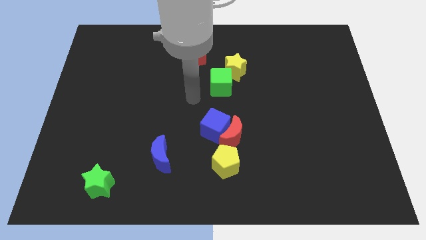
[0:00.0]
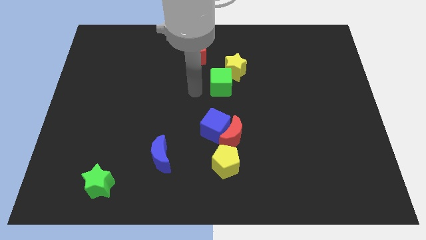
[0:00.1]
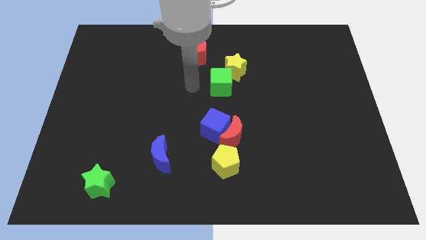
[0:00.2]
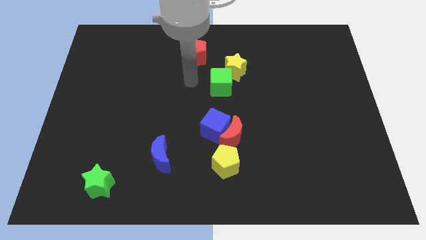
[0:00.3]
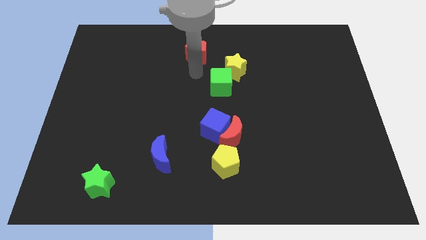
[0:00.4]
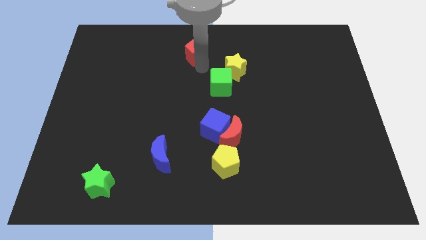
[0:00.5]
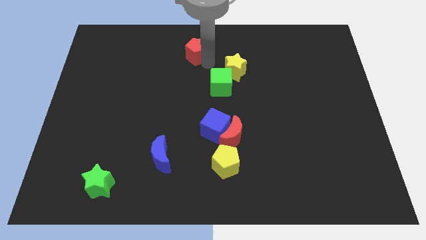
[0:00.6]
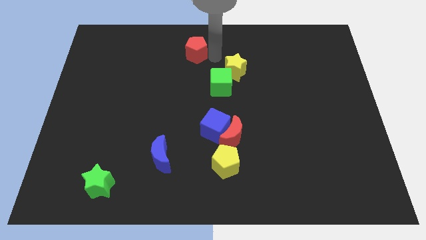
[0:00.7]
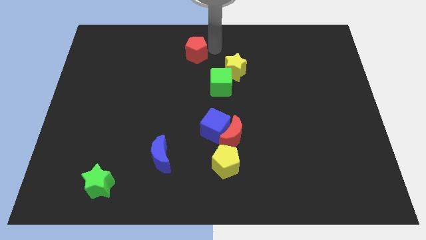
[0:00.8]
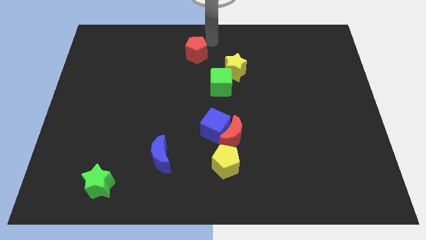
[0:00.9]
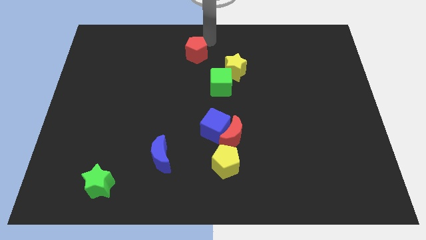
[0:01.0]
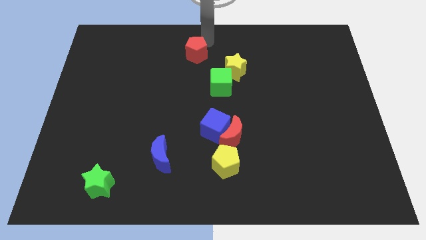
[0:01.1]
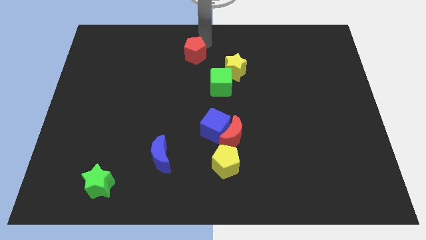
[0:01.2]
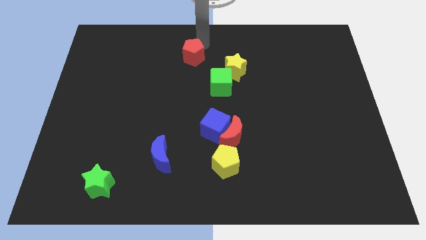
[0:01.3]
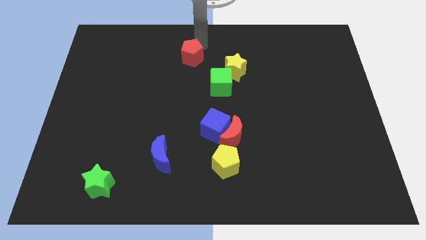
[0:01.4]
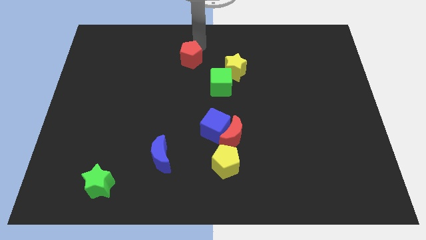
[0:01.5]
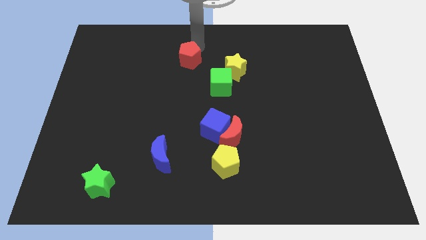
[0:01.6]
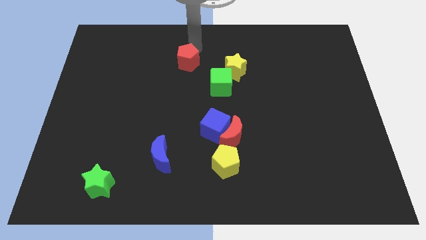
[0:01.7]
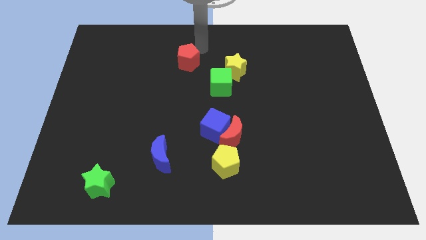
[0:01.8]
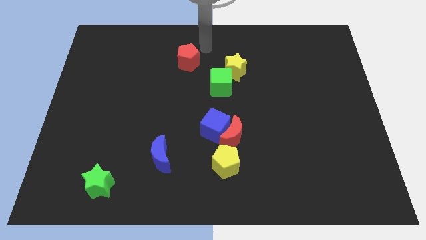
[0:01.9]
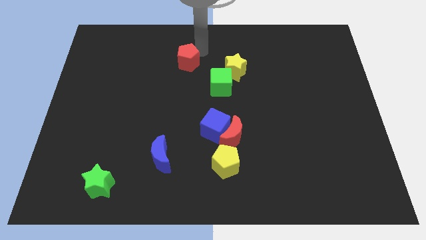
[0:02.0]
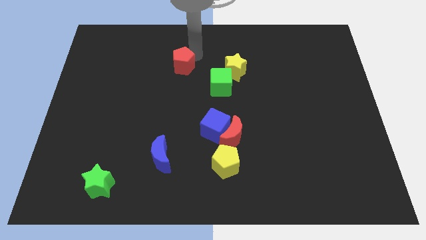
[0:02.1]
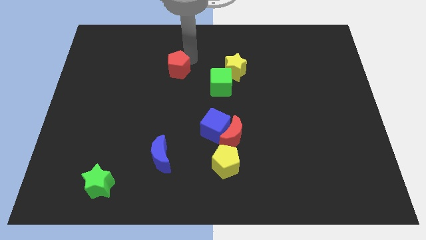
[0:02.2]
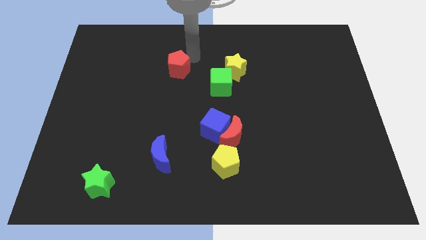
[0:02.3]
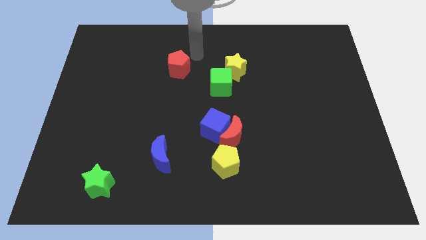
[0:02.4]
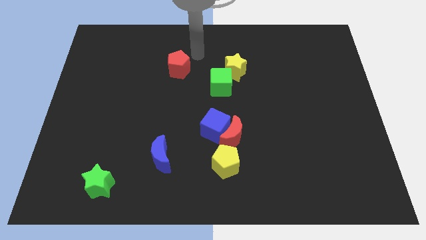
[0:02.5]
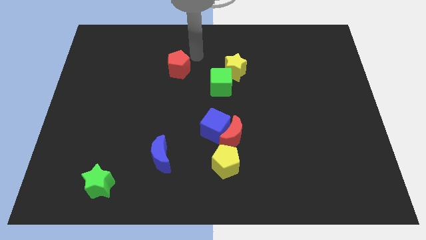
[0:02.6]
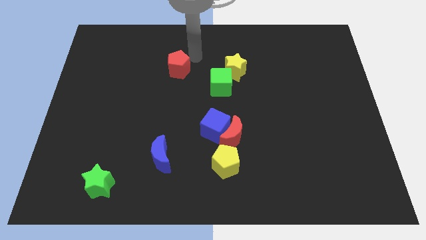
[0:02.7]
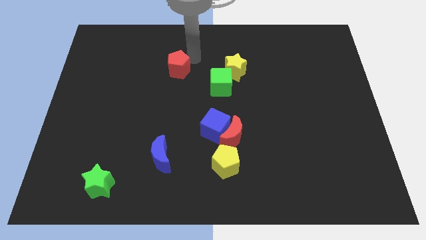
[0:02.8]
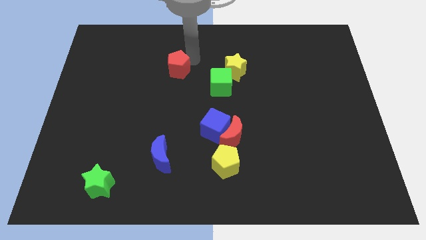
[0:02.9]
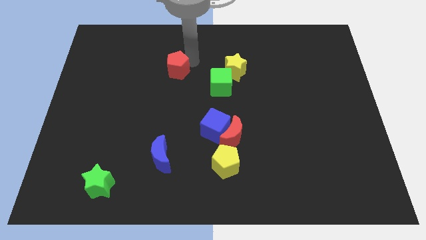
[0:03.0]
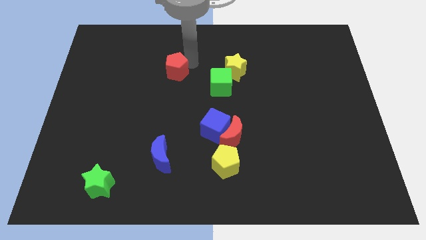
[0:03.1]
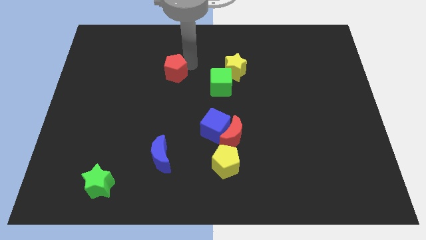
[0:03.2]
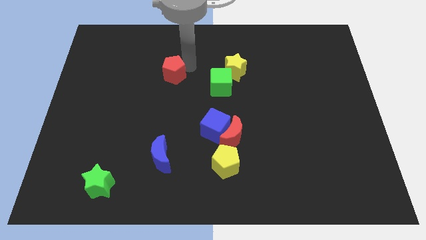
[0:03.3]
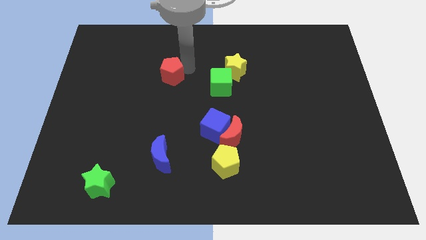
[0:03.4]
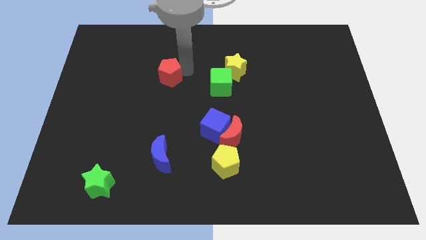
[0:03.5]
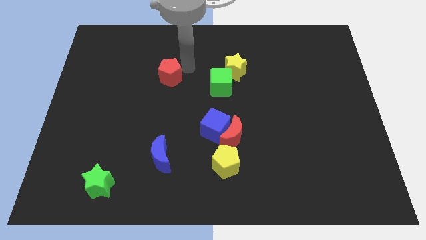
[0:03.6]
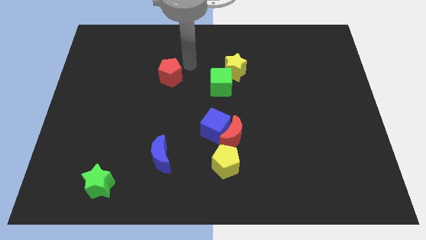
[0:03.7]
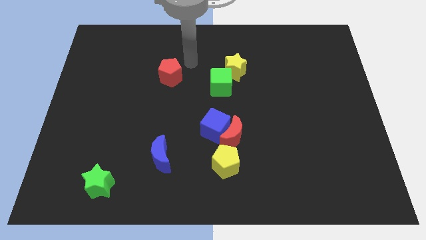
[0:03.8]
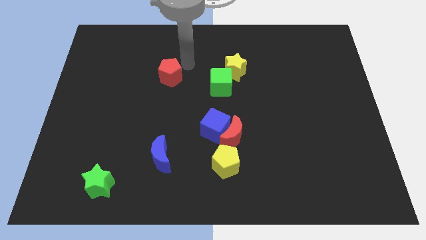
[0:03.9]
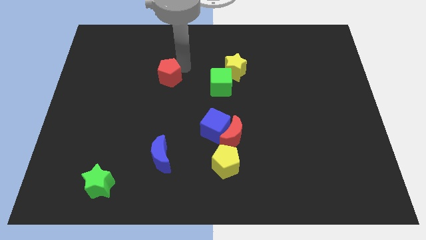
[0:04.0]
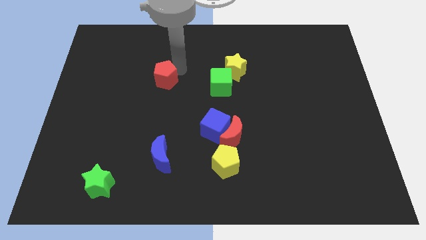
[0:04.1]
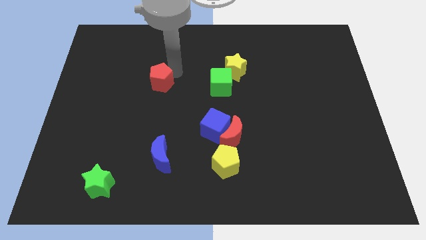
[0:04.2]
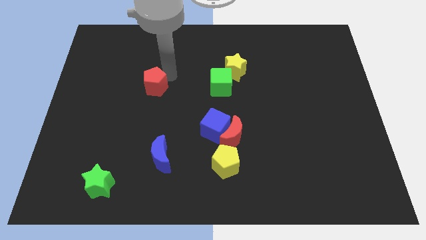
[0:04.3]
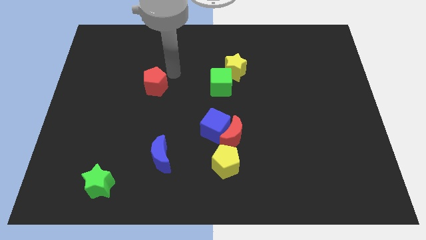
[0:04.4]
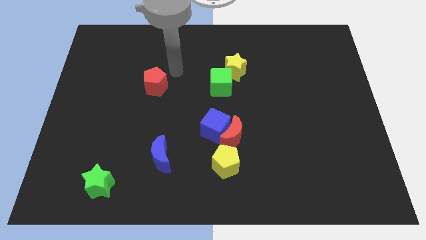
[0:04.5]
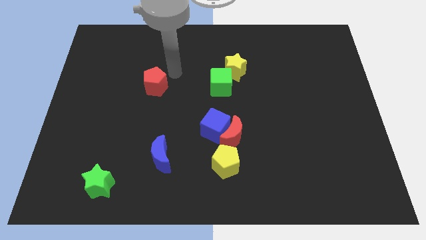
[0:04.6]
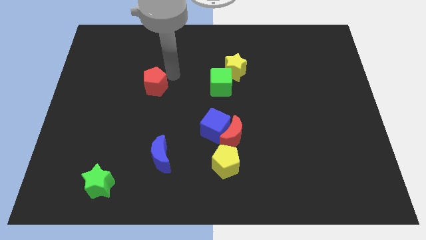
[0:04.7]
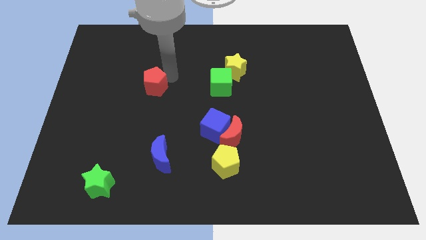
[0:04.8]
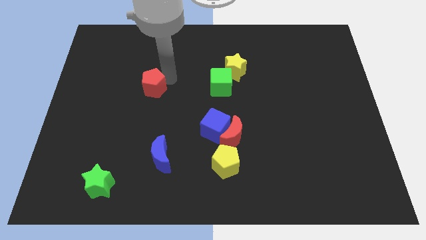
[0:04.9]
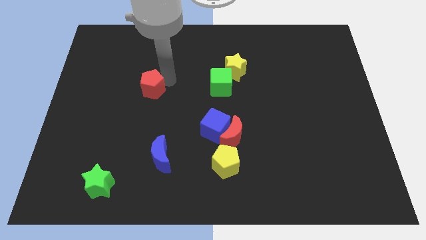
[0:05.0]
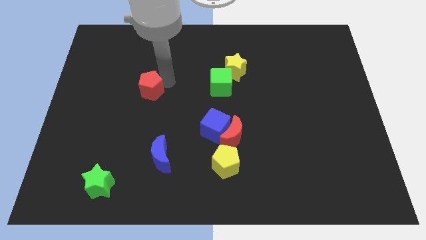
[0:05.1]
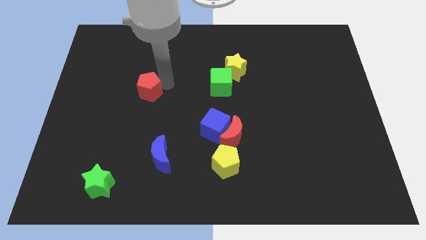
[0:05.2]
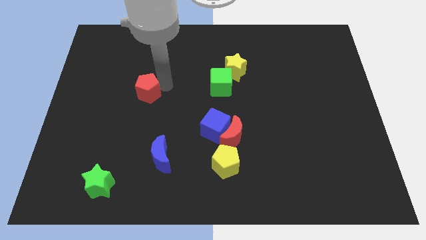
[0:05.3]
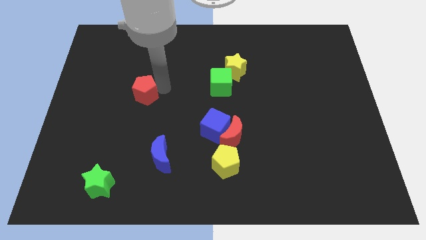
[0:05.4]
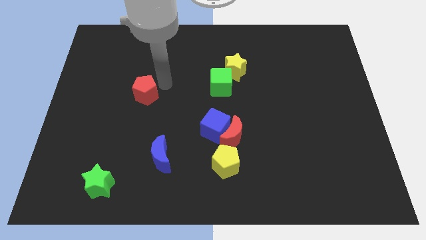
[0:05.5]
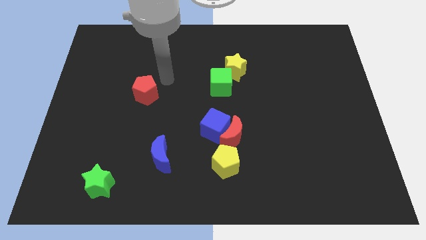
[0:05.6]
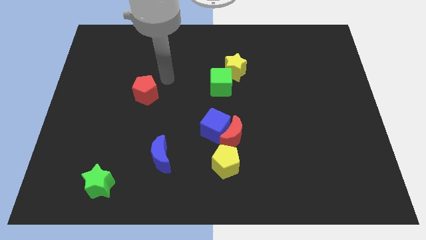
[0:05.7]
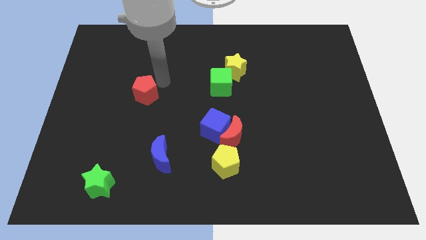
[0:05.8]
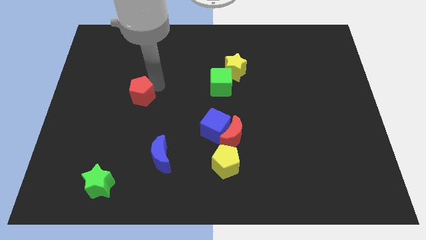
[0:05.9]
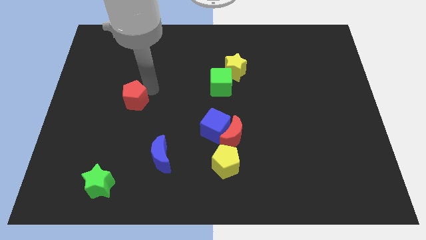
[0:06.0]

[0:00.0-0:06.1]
push the red pentagon down and then left

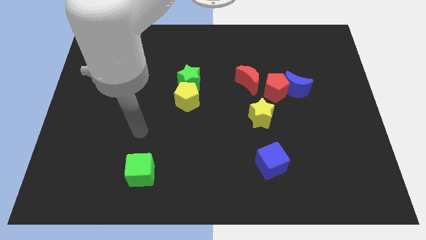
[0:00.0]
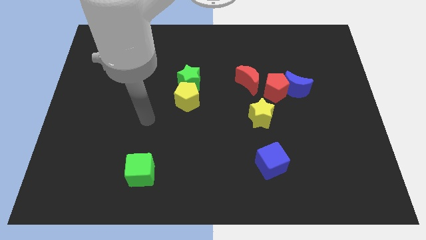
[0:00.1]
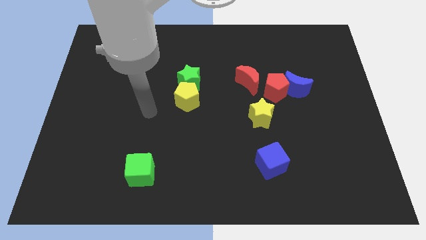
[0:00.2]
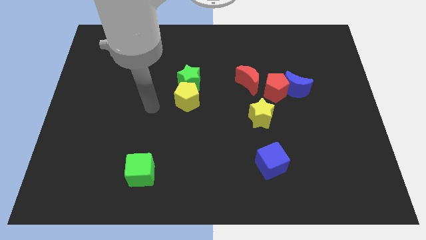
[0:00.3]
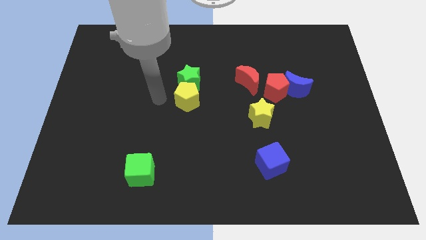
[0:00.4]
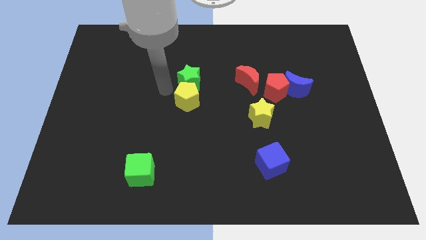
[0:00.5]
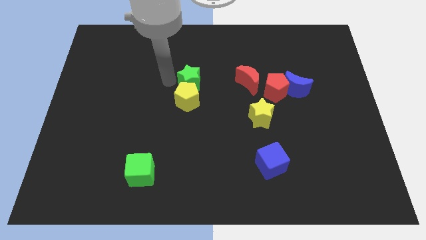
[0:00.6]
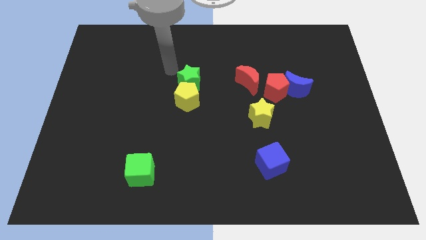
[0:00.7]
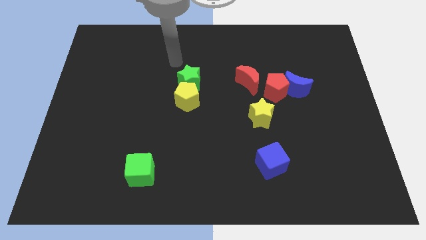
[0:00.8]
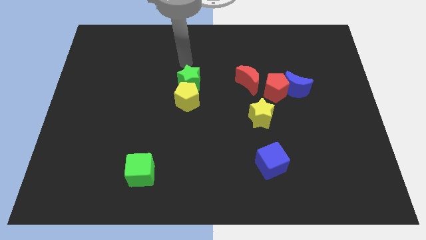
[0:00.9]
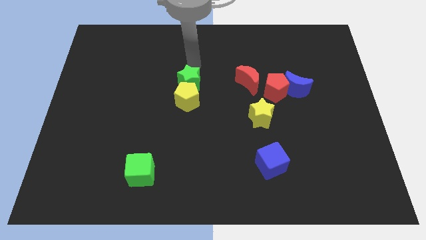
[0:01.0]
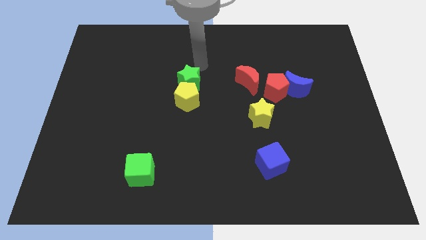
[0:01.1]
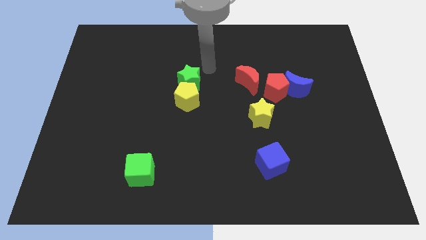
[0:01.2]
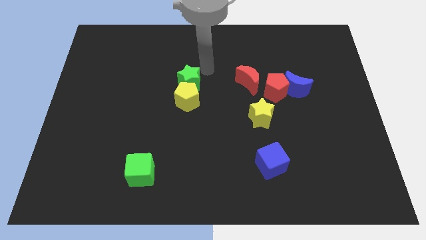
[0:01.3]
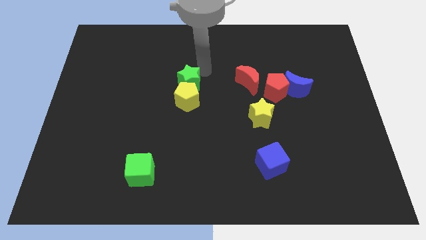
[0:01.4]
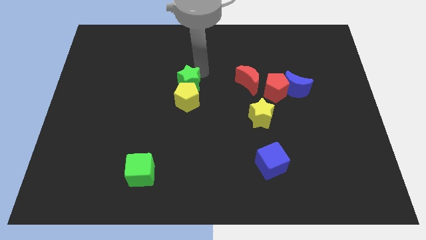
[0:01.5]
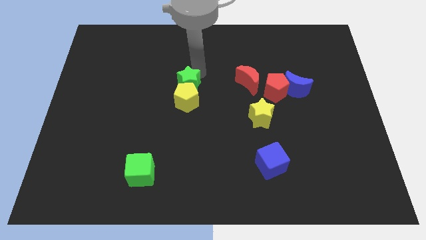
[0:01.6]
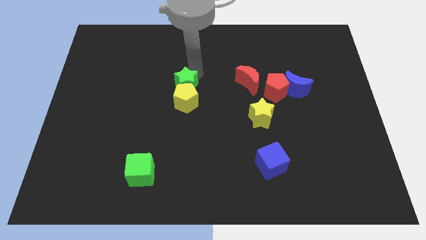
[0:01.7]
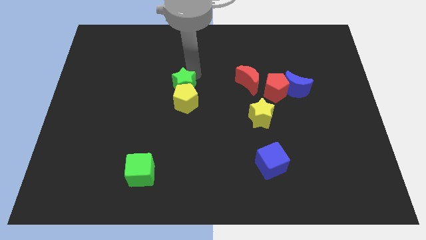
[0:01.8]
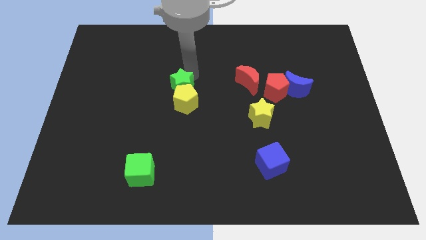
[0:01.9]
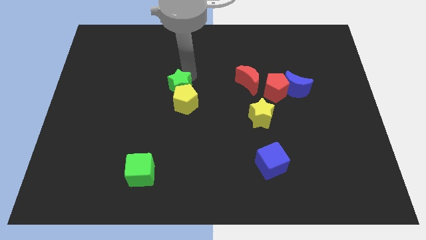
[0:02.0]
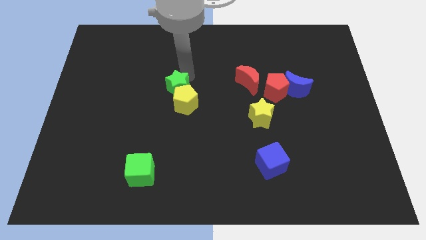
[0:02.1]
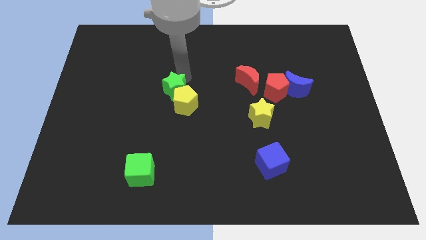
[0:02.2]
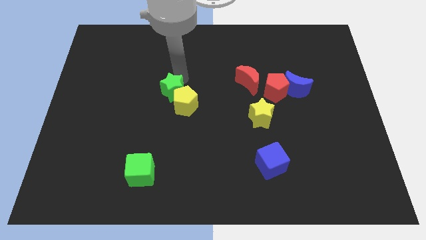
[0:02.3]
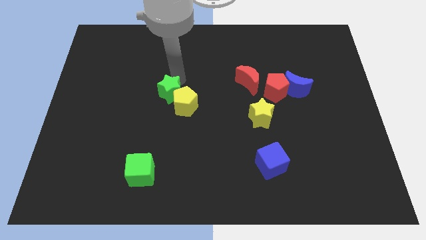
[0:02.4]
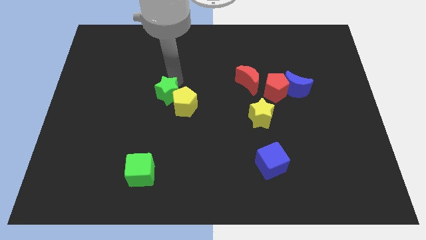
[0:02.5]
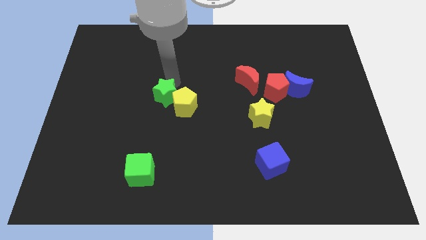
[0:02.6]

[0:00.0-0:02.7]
push the green star downwards and left slightly
